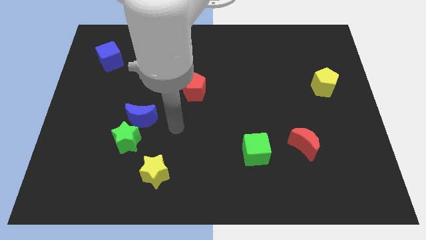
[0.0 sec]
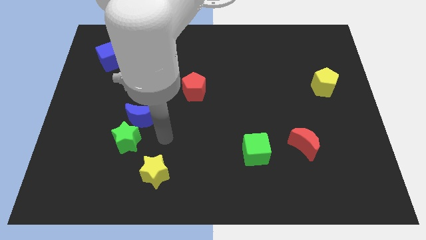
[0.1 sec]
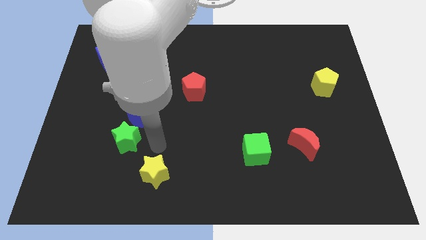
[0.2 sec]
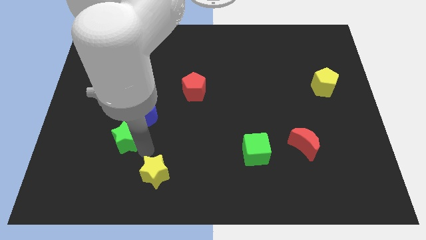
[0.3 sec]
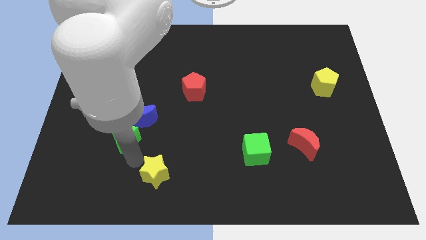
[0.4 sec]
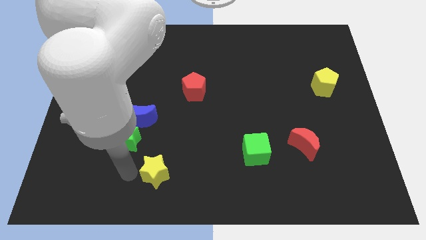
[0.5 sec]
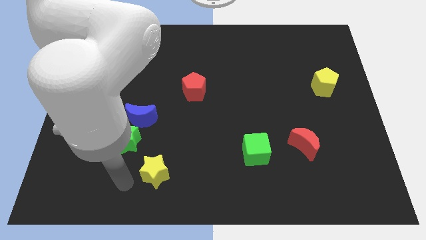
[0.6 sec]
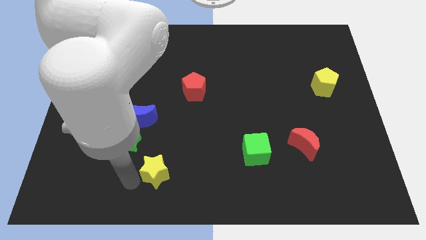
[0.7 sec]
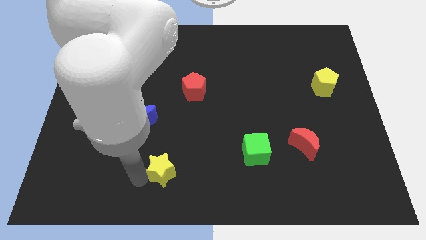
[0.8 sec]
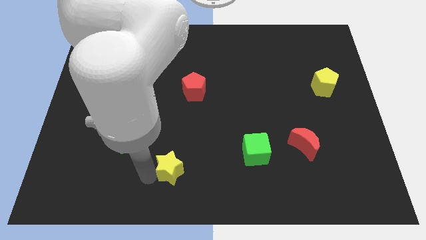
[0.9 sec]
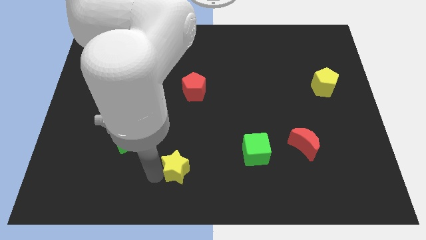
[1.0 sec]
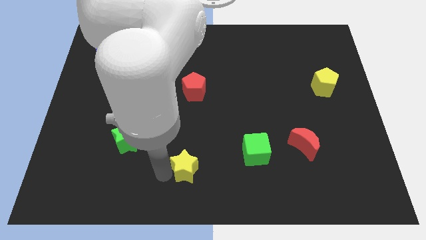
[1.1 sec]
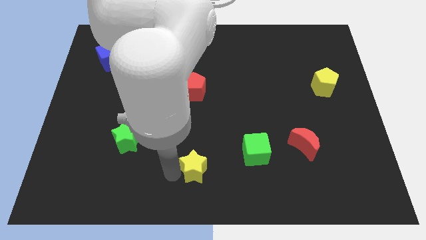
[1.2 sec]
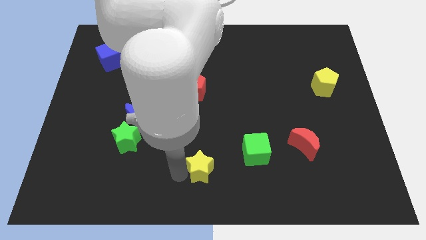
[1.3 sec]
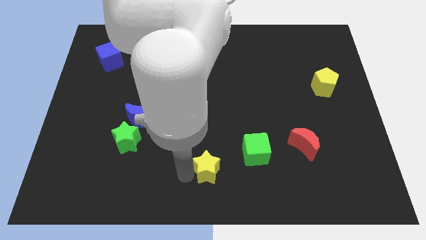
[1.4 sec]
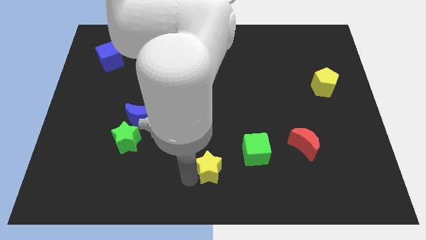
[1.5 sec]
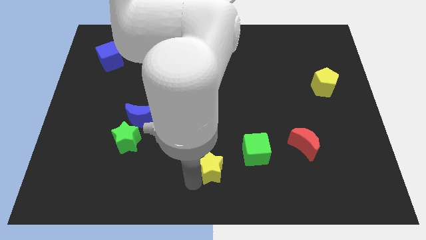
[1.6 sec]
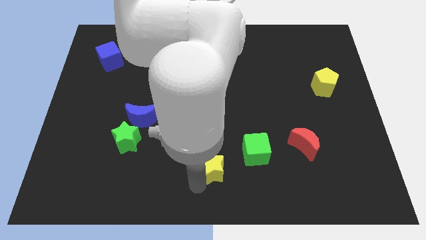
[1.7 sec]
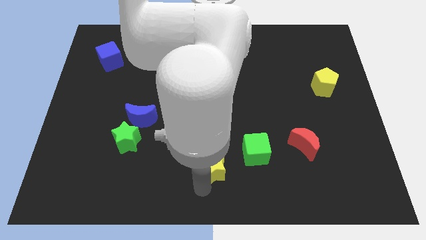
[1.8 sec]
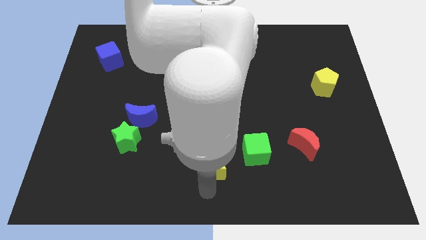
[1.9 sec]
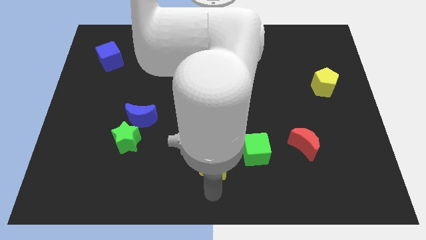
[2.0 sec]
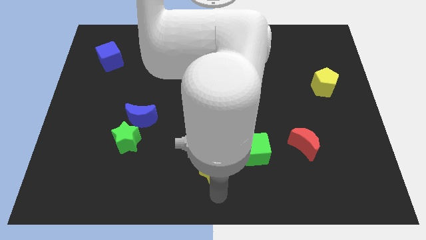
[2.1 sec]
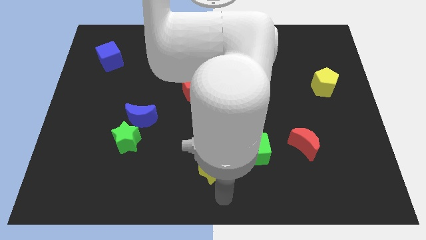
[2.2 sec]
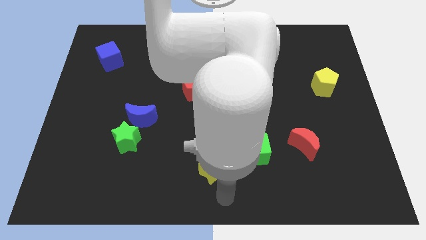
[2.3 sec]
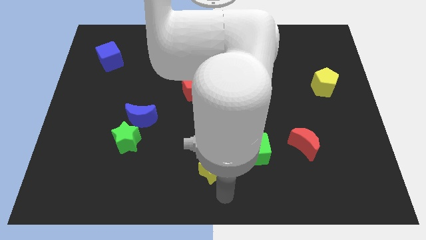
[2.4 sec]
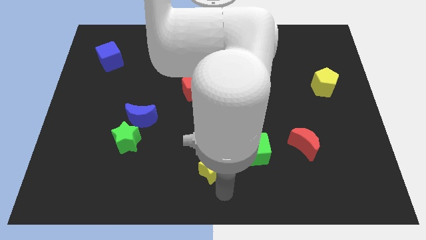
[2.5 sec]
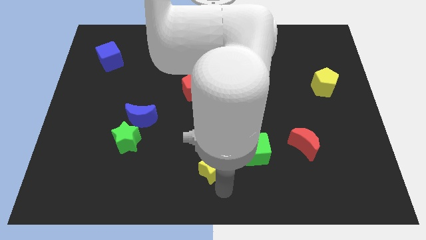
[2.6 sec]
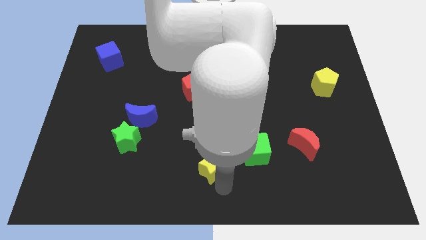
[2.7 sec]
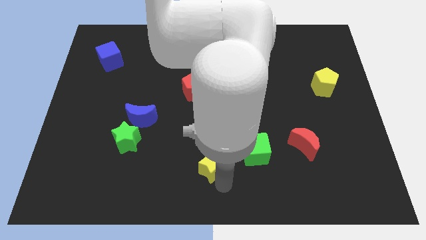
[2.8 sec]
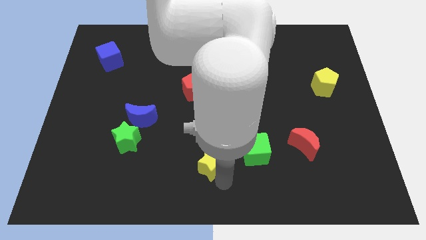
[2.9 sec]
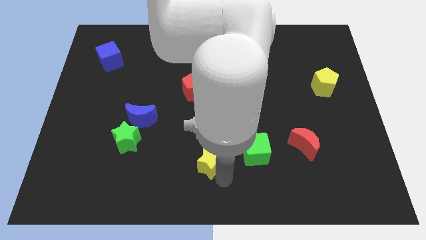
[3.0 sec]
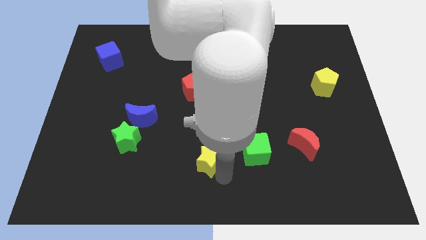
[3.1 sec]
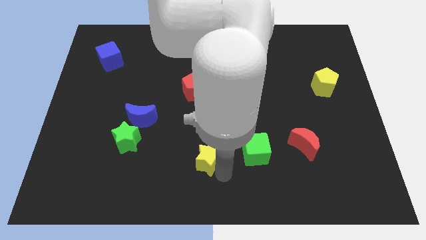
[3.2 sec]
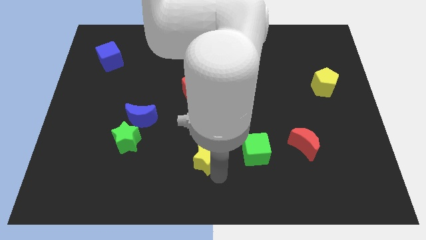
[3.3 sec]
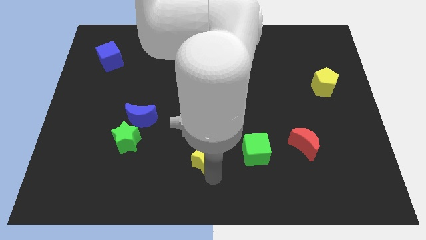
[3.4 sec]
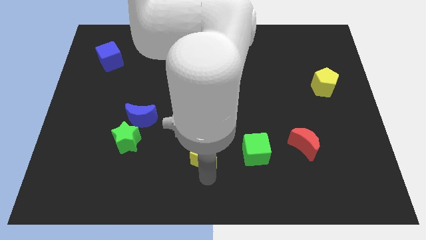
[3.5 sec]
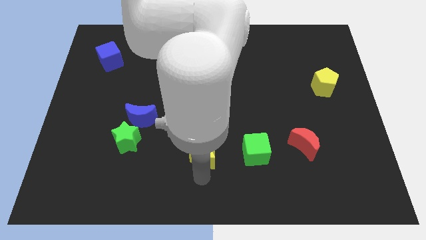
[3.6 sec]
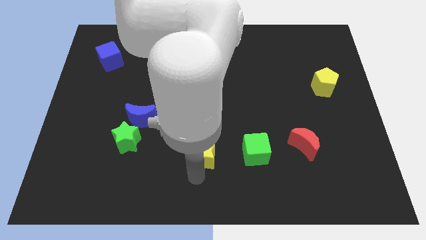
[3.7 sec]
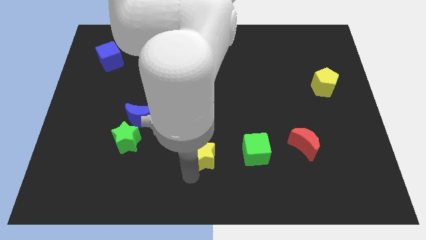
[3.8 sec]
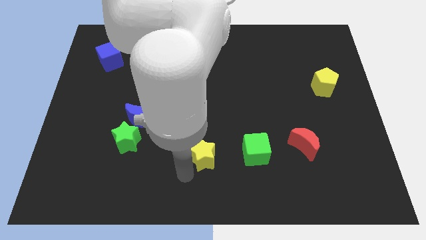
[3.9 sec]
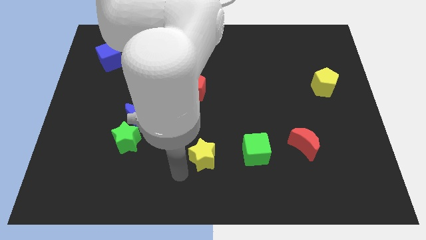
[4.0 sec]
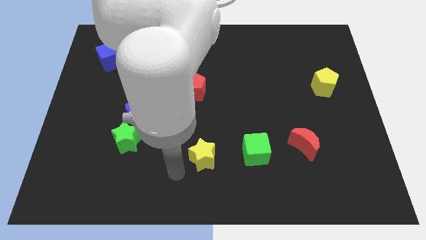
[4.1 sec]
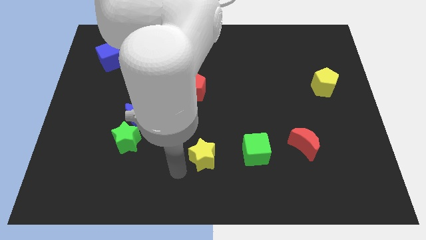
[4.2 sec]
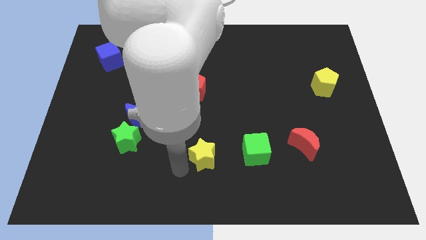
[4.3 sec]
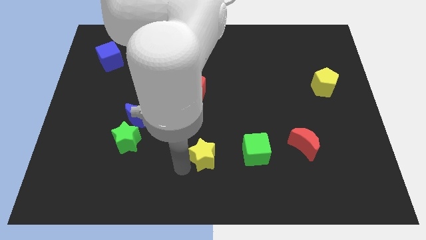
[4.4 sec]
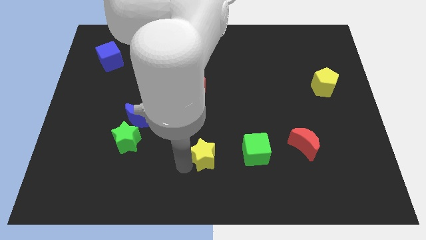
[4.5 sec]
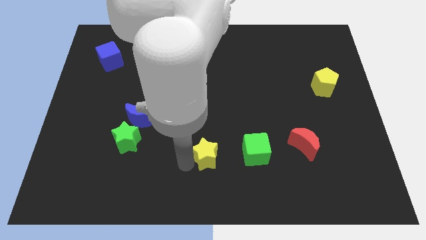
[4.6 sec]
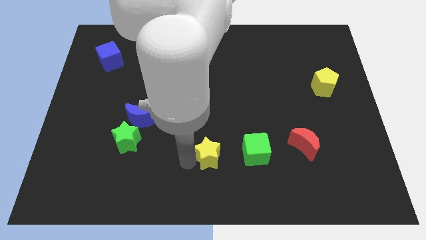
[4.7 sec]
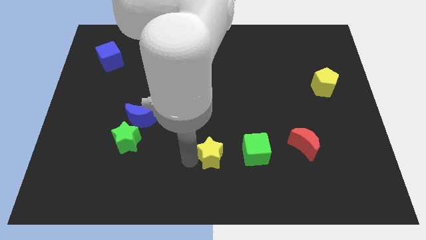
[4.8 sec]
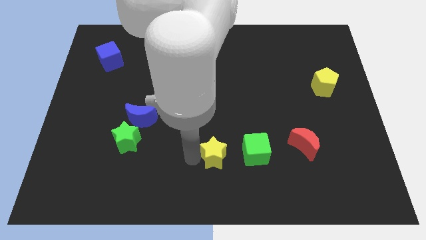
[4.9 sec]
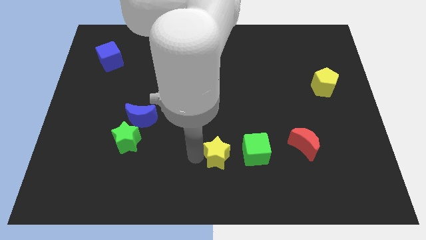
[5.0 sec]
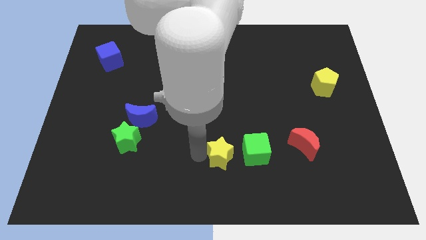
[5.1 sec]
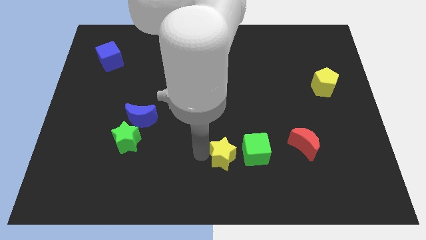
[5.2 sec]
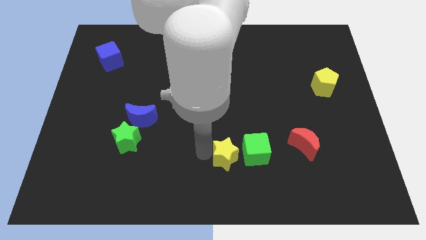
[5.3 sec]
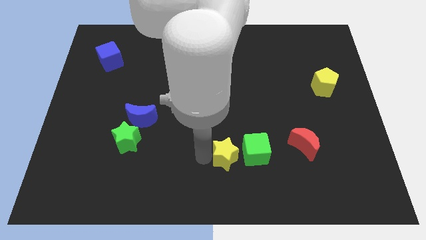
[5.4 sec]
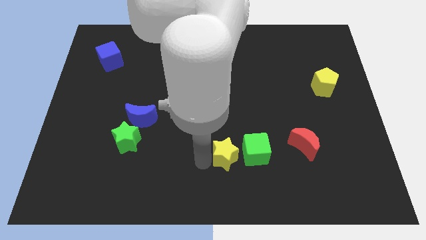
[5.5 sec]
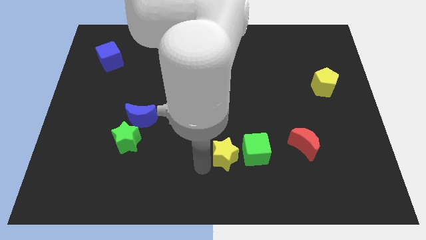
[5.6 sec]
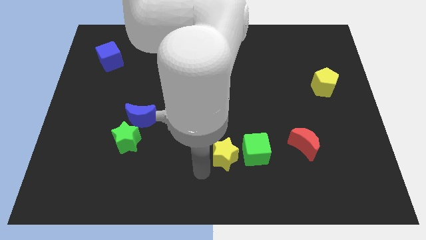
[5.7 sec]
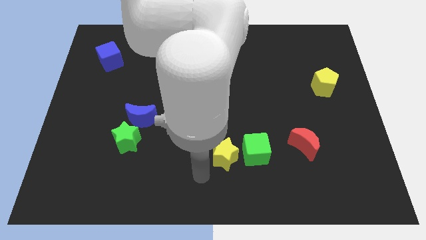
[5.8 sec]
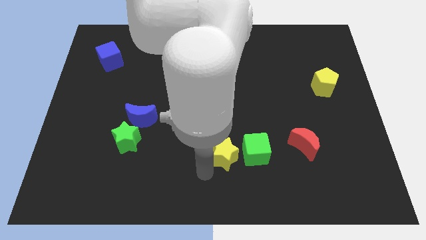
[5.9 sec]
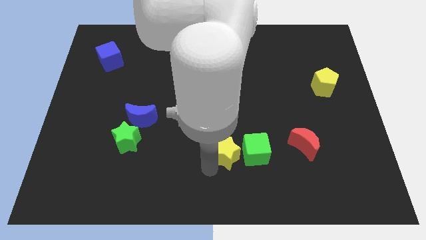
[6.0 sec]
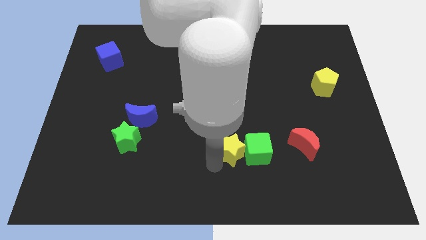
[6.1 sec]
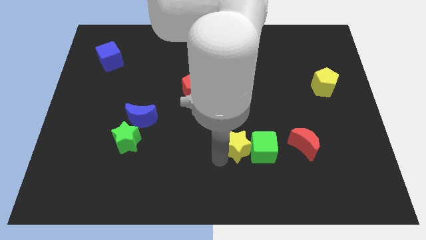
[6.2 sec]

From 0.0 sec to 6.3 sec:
push the yellow star just left of the red moon

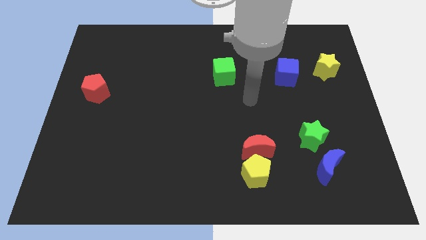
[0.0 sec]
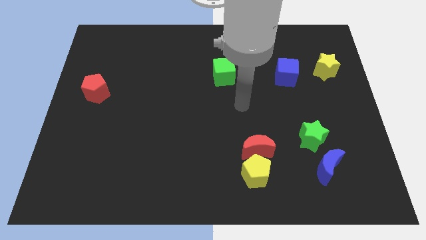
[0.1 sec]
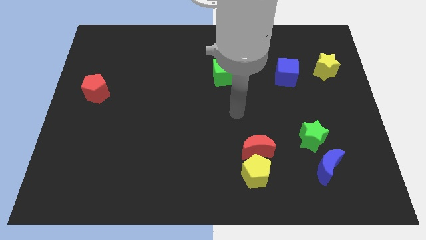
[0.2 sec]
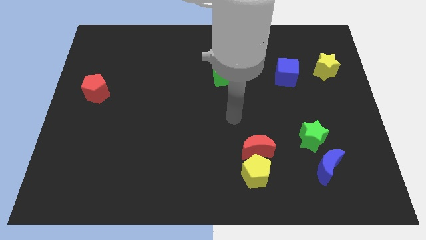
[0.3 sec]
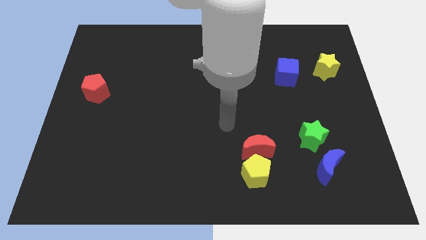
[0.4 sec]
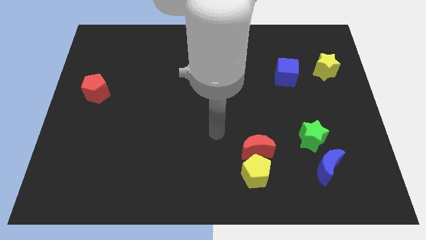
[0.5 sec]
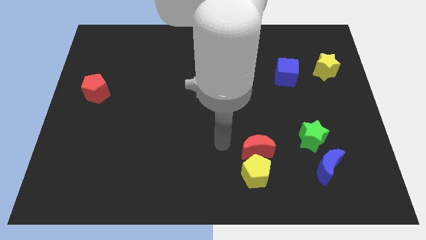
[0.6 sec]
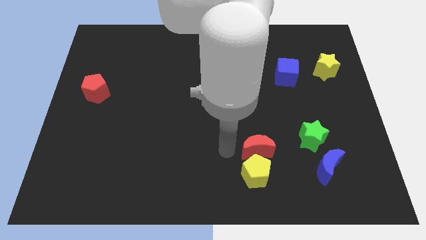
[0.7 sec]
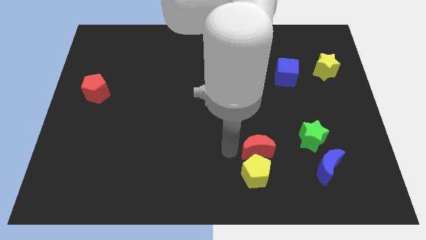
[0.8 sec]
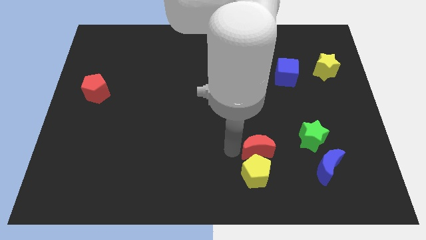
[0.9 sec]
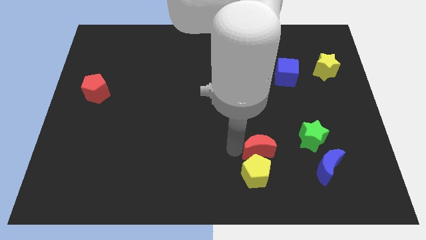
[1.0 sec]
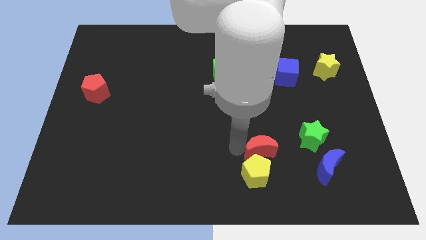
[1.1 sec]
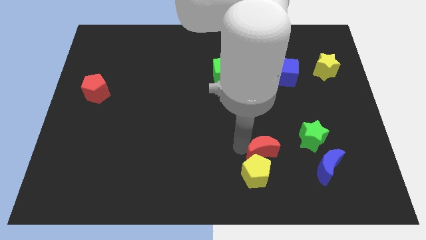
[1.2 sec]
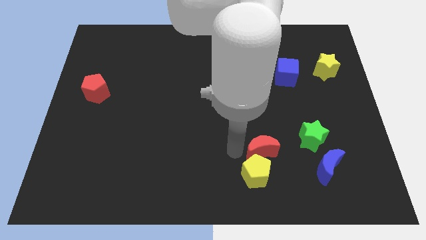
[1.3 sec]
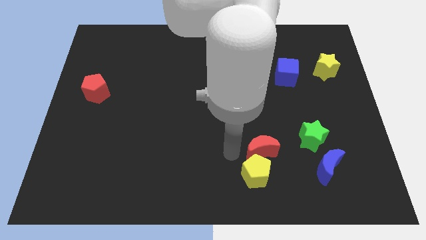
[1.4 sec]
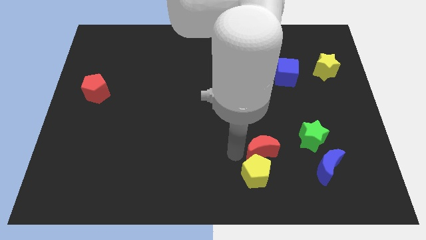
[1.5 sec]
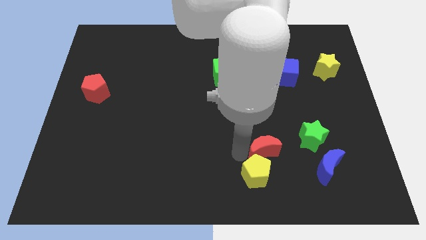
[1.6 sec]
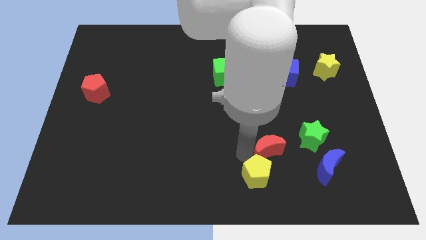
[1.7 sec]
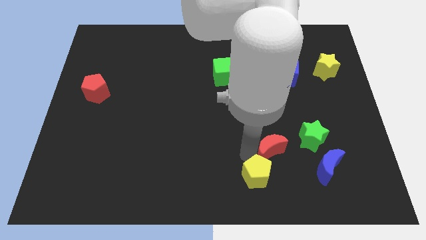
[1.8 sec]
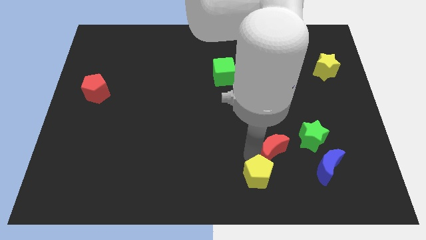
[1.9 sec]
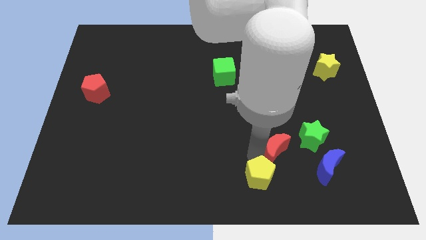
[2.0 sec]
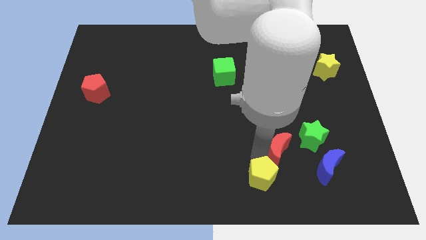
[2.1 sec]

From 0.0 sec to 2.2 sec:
move the red moon to the top left of the blue moon
